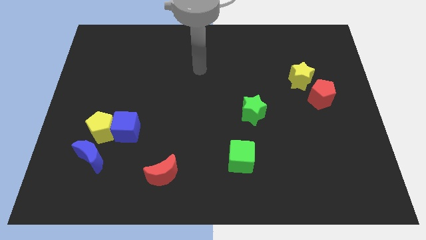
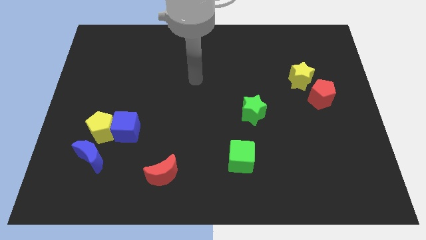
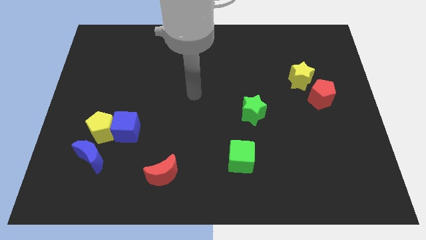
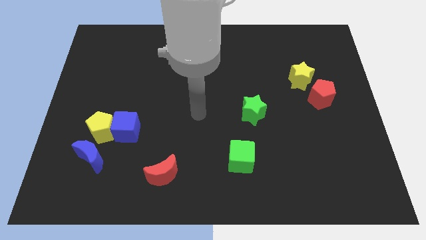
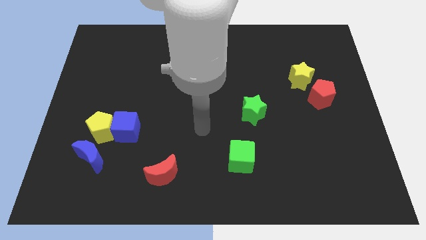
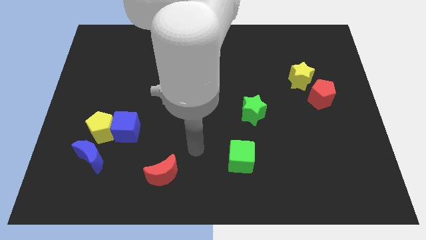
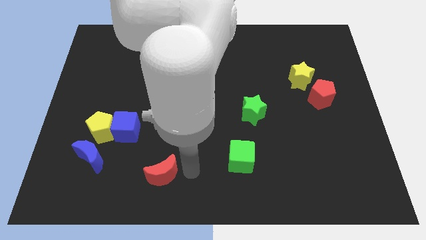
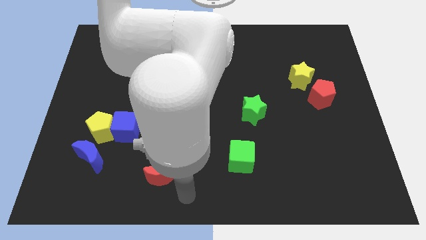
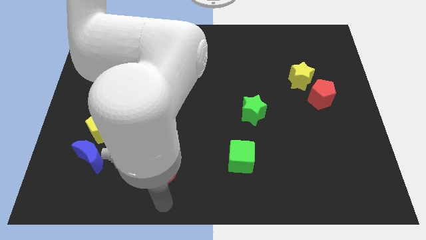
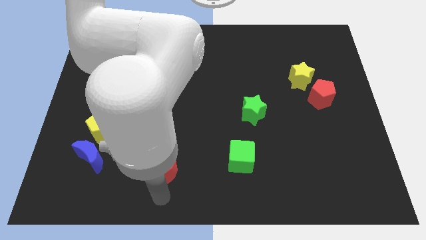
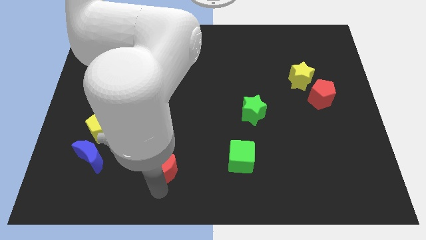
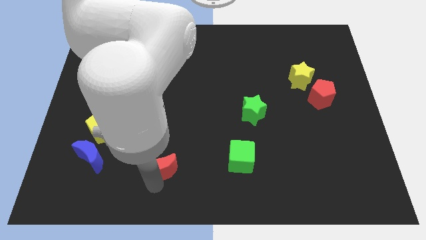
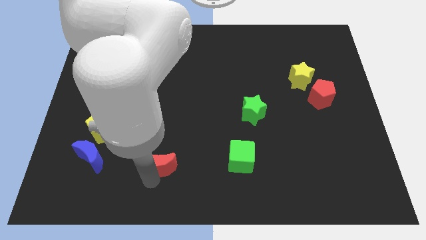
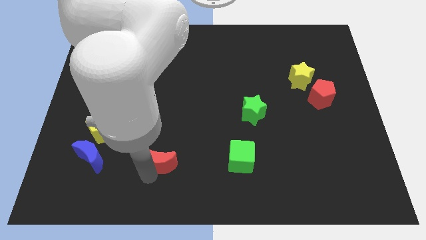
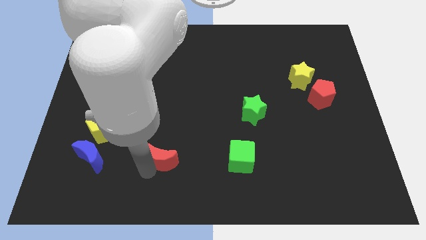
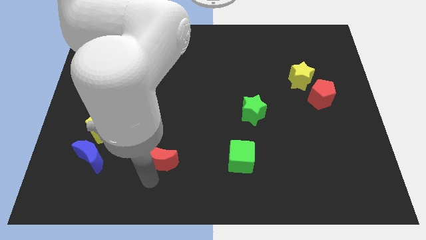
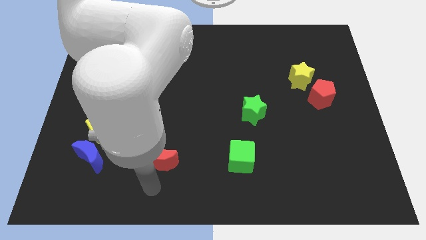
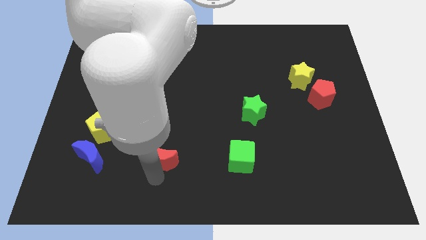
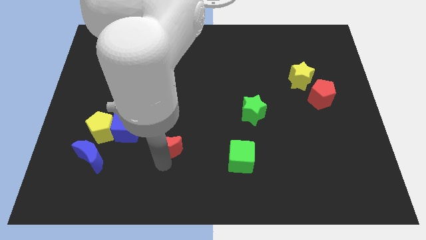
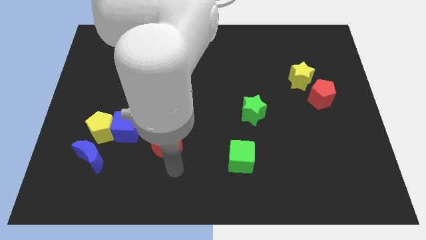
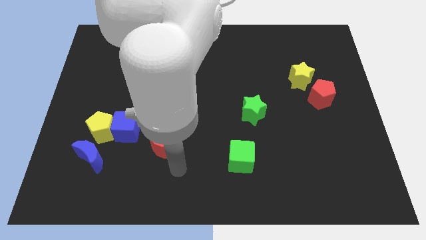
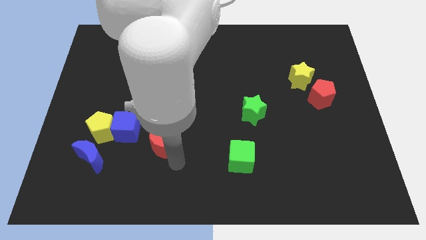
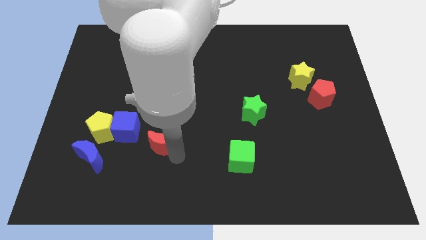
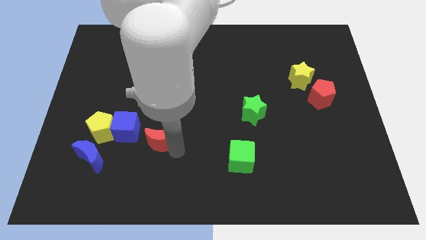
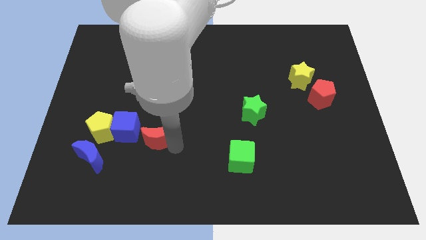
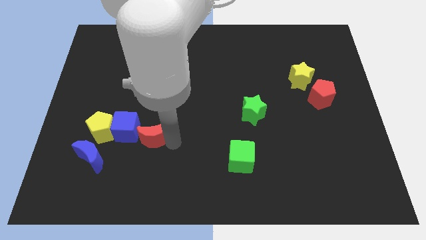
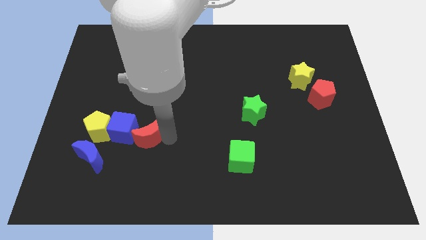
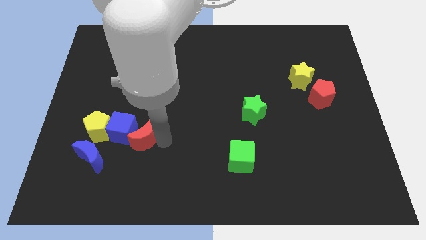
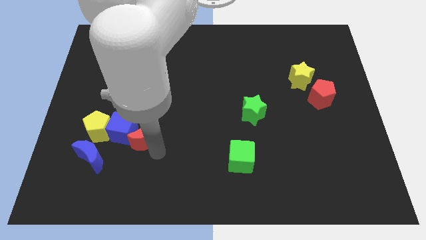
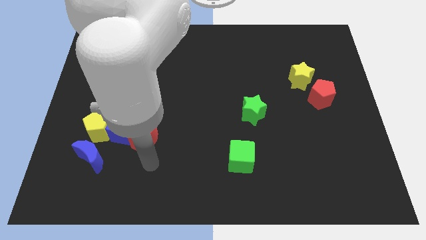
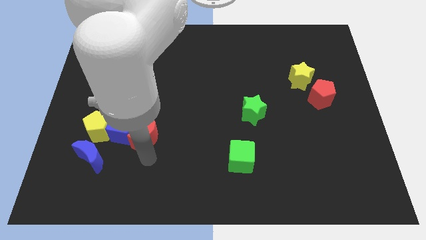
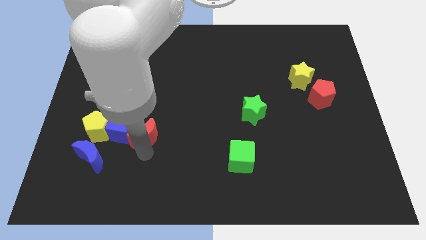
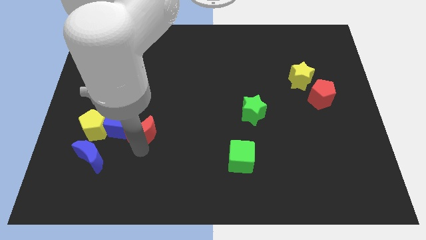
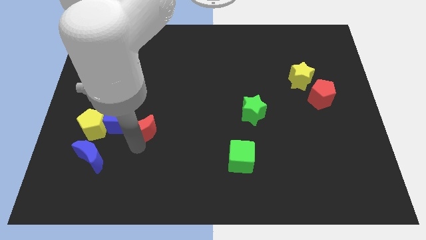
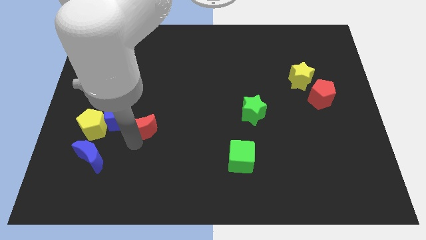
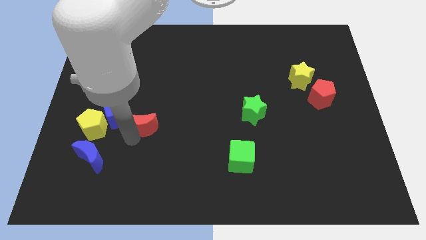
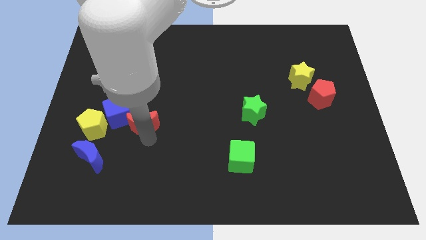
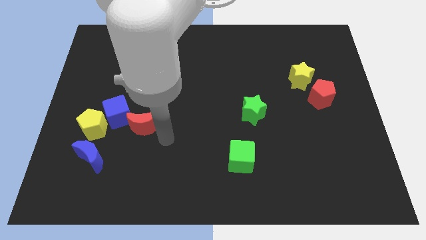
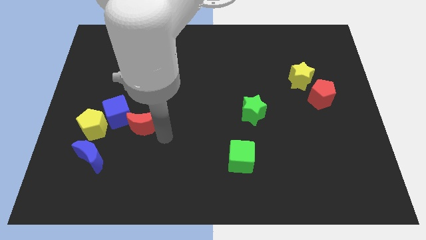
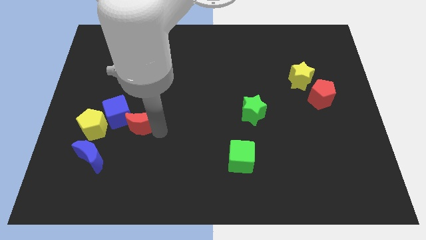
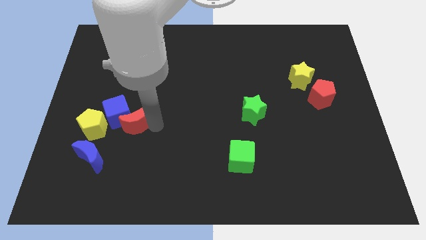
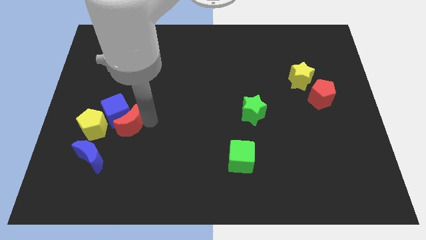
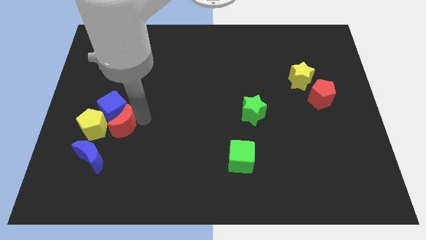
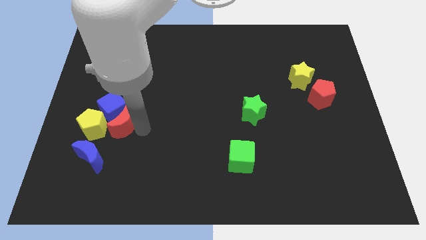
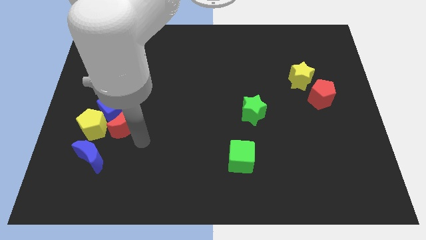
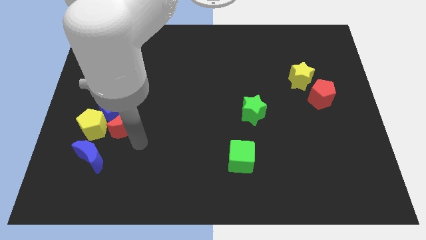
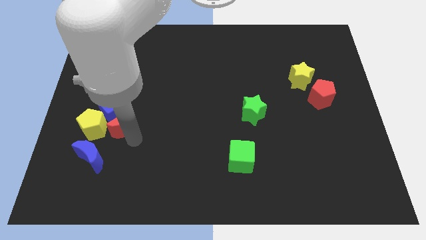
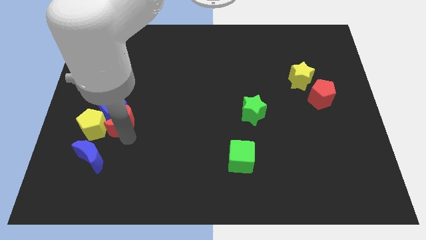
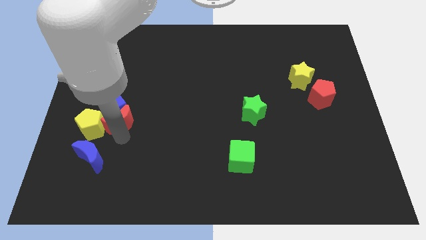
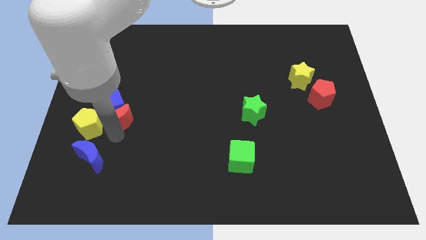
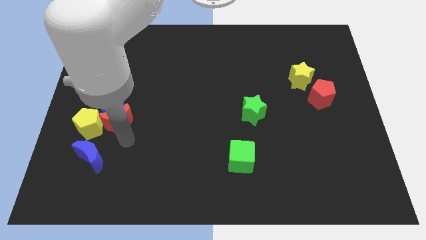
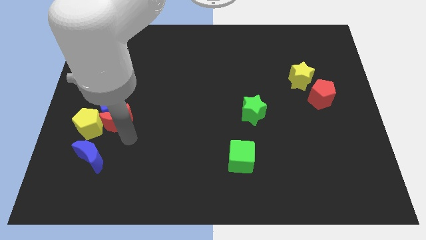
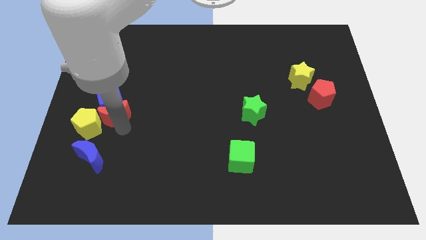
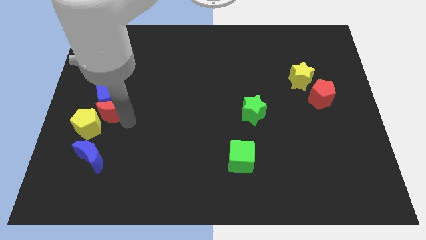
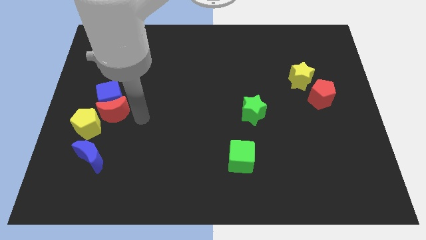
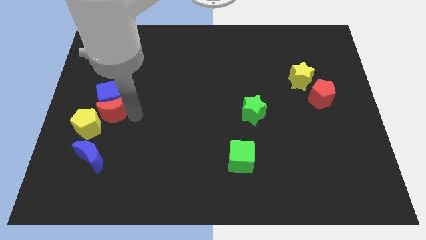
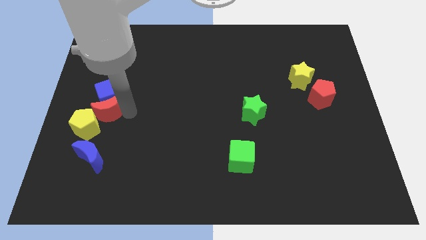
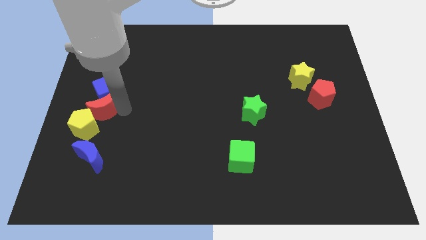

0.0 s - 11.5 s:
put the red moon to the left side of the board

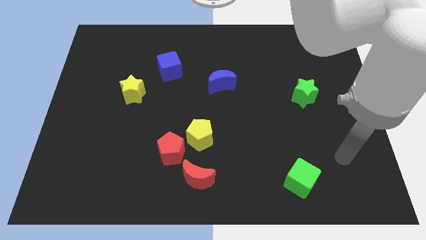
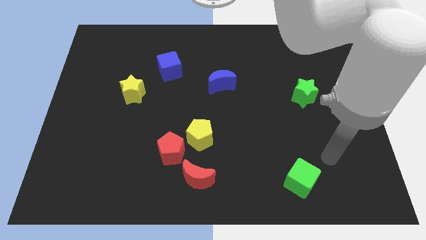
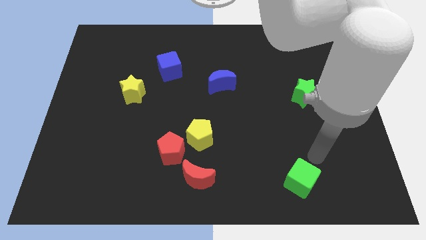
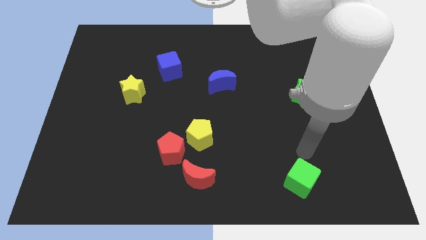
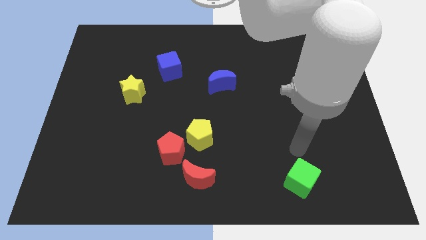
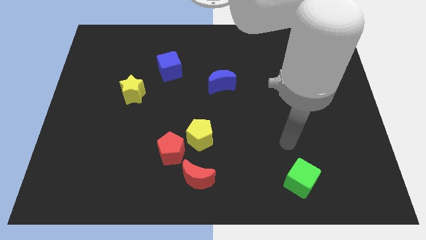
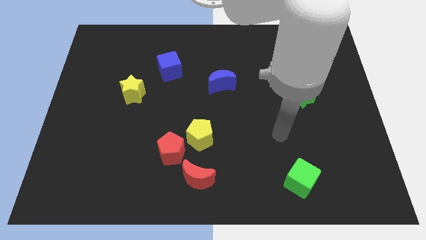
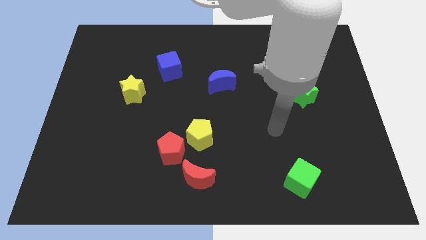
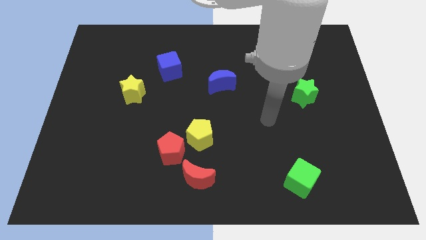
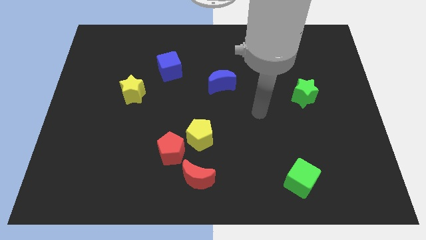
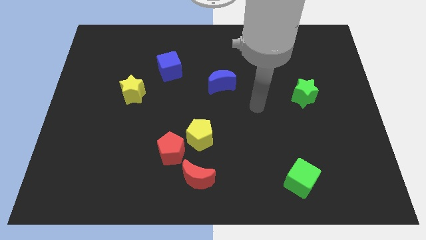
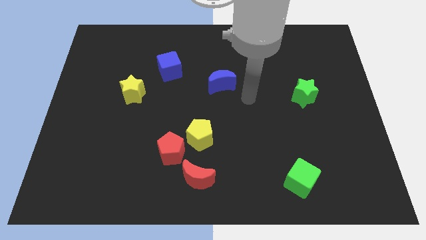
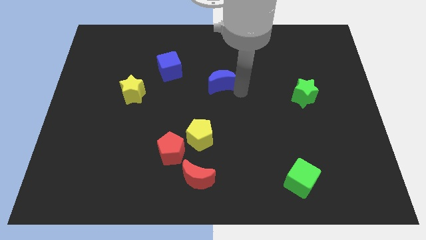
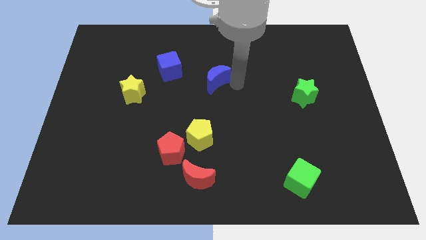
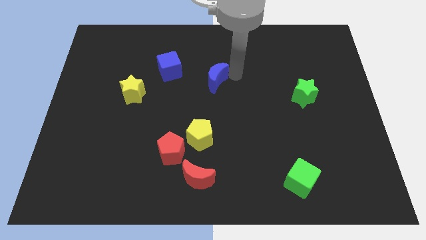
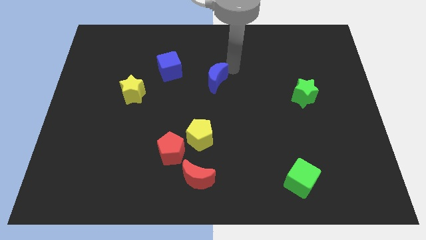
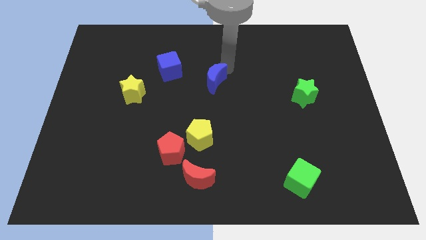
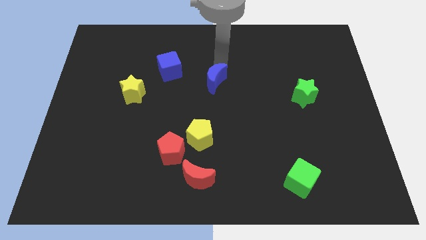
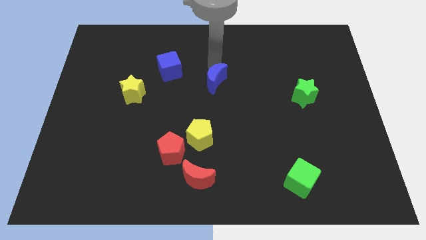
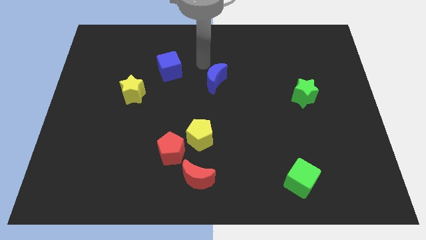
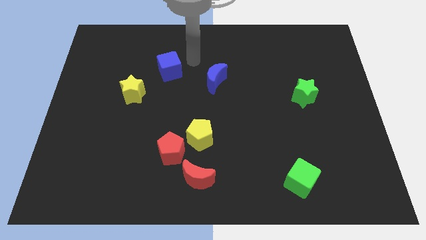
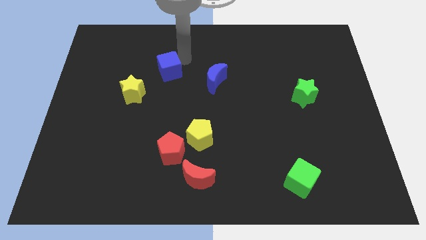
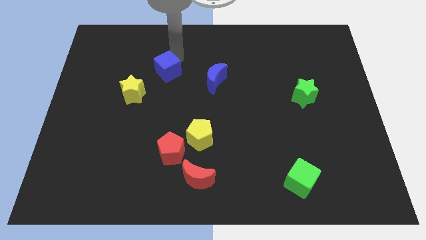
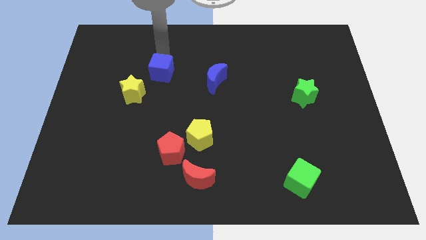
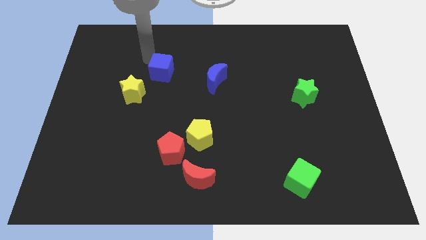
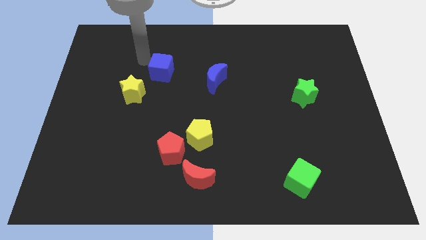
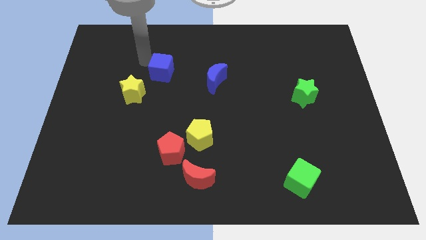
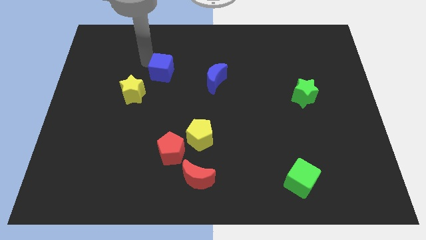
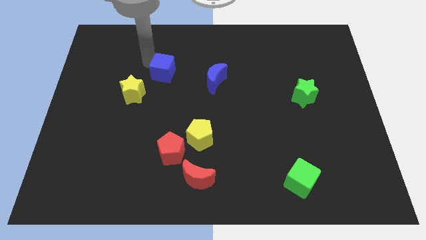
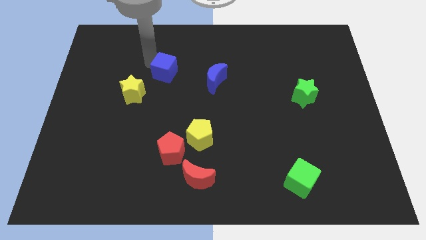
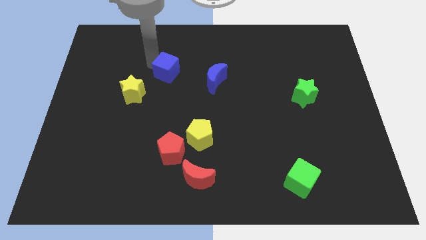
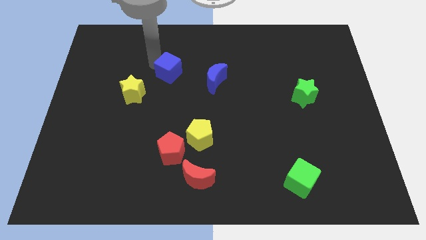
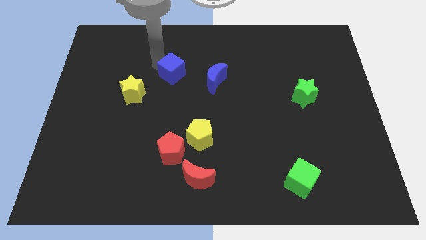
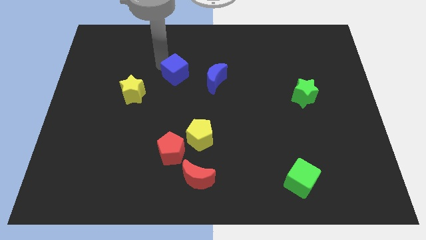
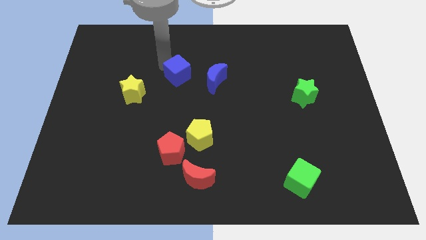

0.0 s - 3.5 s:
slide the blue cube to the middle of the board
